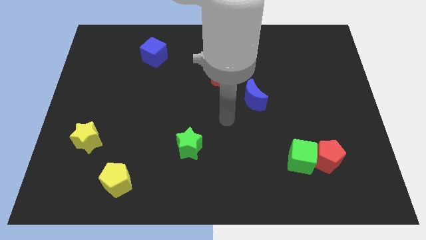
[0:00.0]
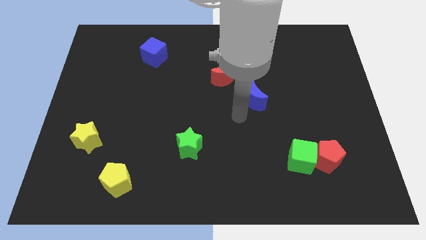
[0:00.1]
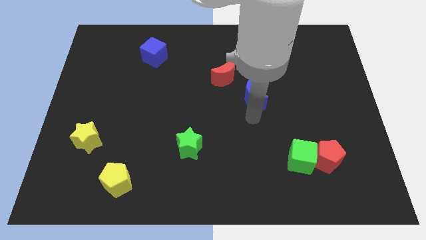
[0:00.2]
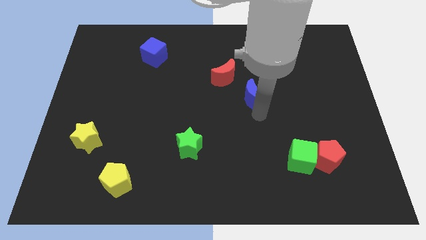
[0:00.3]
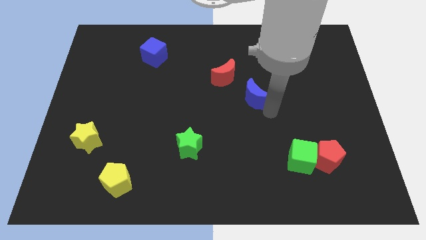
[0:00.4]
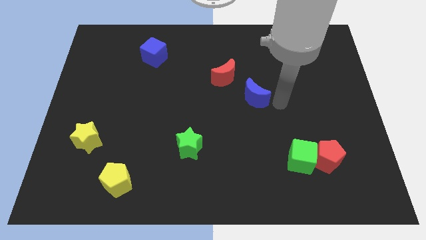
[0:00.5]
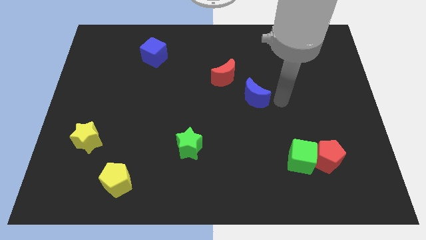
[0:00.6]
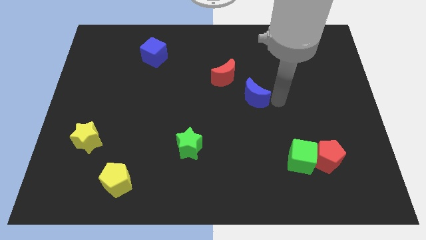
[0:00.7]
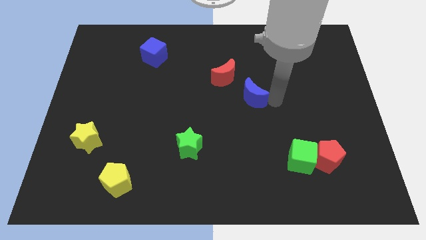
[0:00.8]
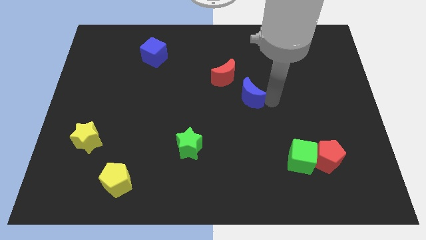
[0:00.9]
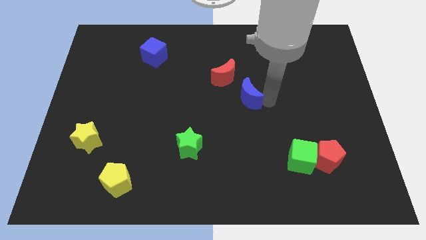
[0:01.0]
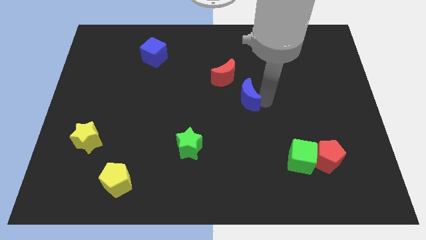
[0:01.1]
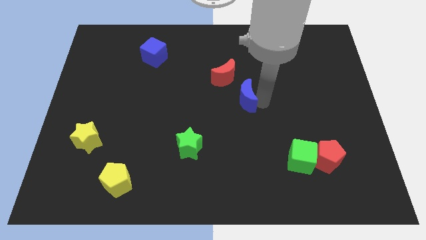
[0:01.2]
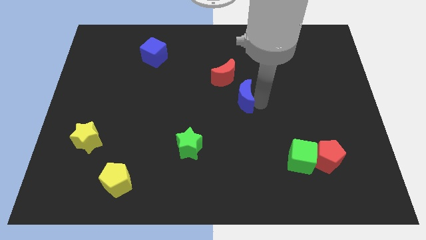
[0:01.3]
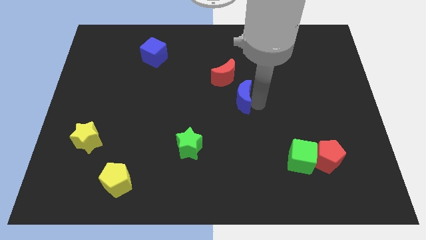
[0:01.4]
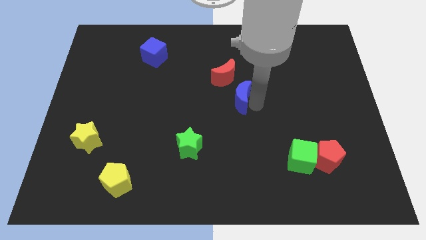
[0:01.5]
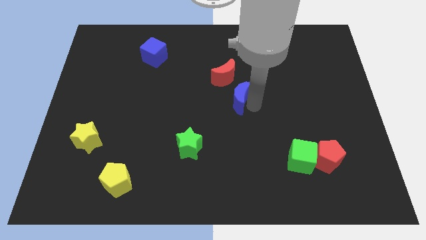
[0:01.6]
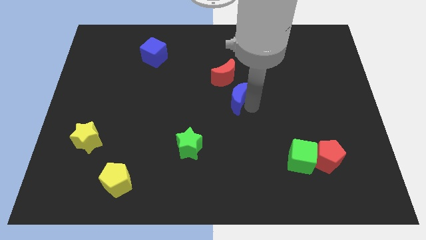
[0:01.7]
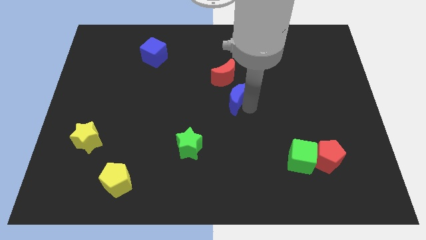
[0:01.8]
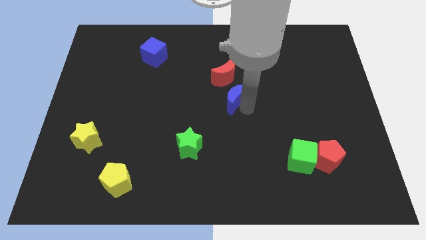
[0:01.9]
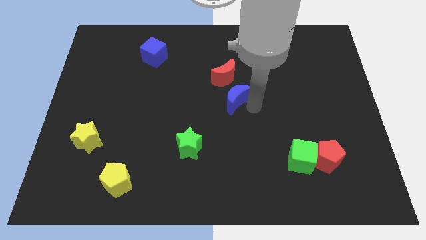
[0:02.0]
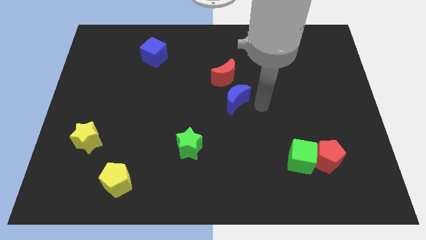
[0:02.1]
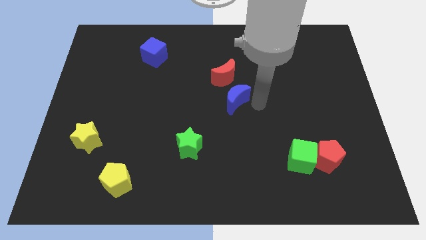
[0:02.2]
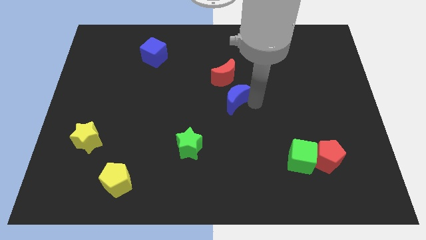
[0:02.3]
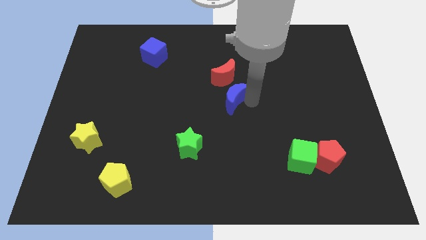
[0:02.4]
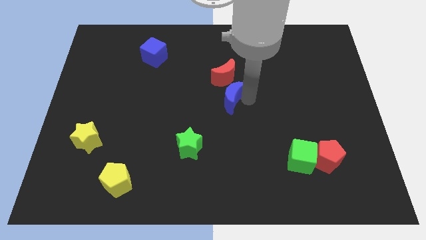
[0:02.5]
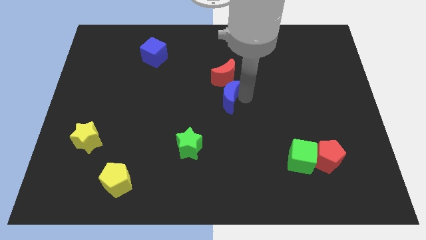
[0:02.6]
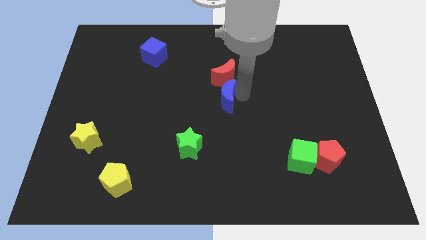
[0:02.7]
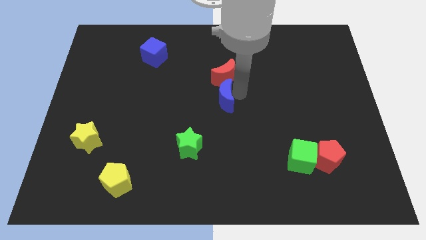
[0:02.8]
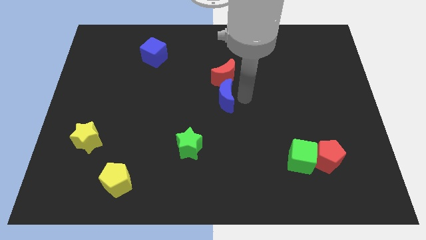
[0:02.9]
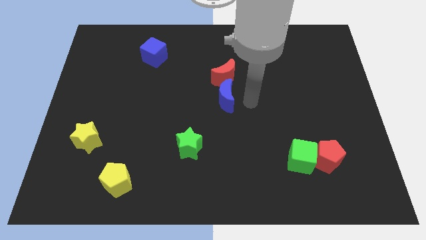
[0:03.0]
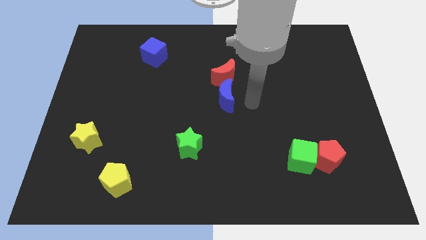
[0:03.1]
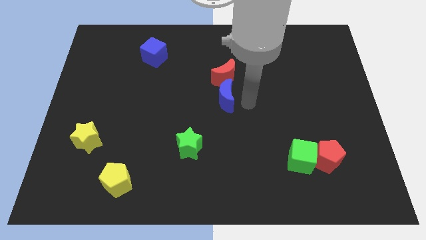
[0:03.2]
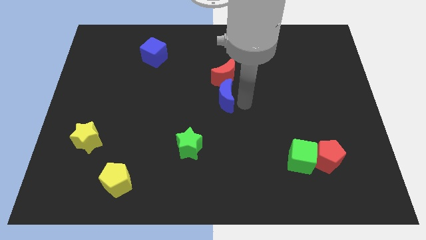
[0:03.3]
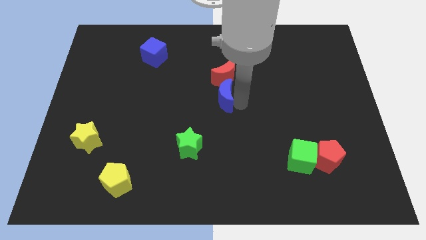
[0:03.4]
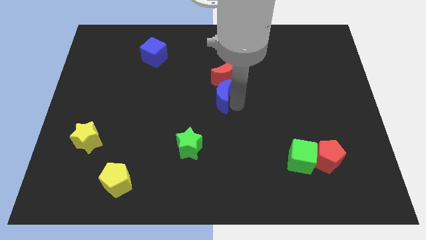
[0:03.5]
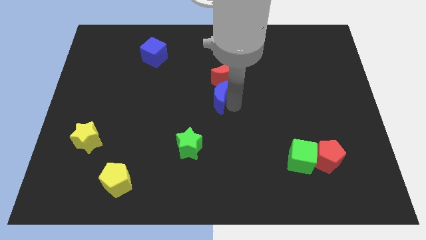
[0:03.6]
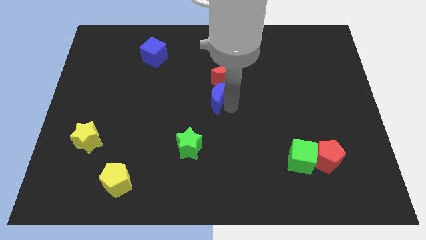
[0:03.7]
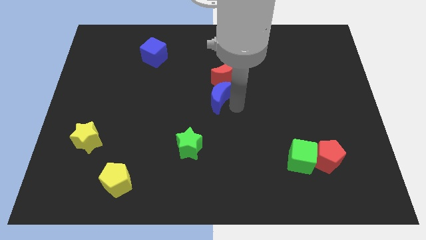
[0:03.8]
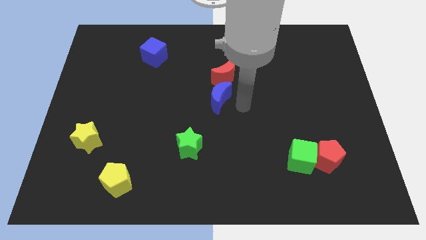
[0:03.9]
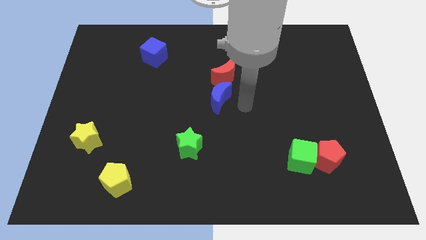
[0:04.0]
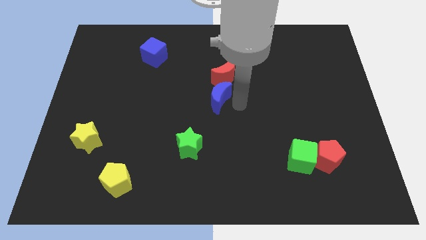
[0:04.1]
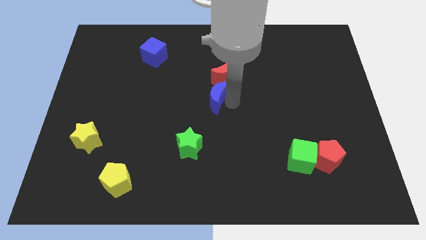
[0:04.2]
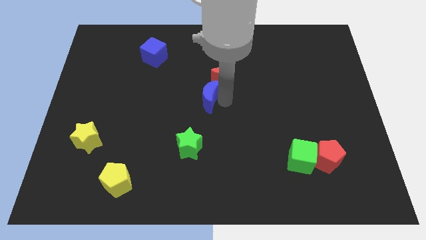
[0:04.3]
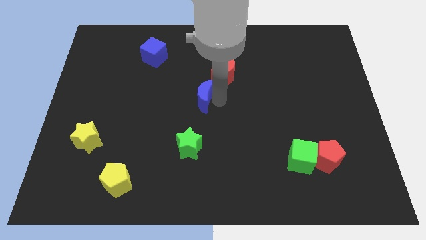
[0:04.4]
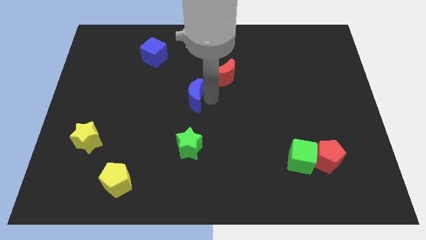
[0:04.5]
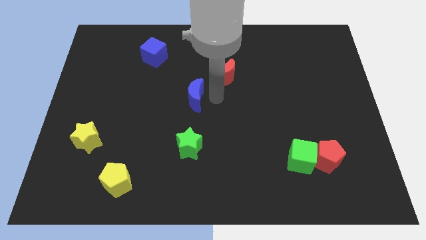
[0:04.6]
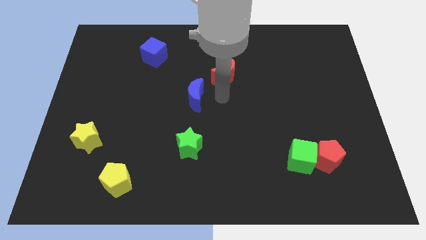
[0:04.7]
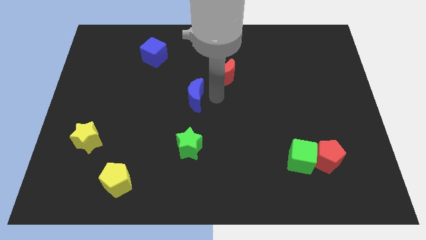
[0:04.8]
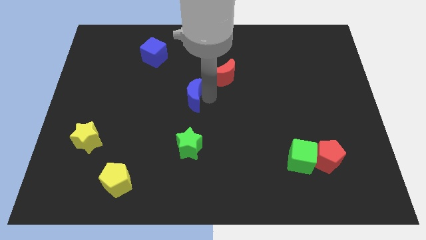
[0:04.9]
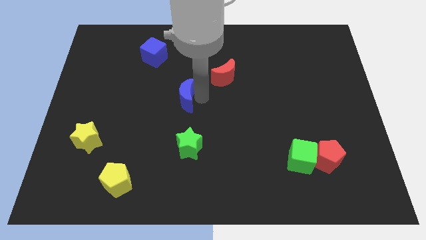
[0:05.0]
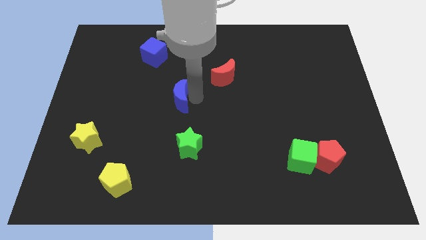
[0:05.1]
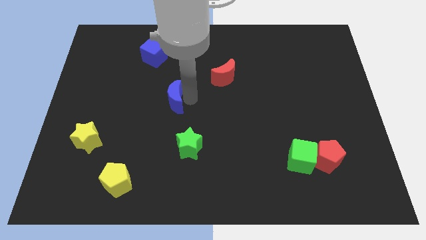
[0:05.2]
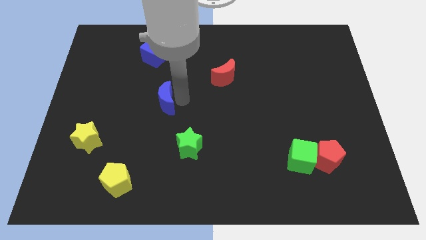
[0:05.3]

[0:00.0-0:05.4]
push the blue moon left

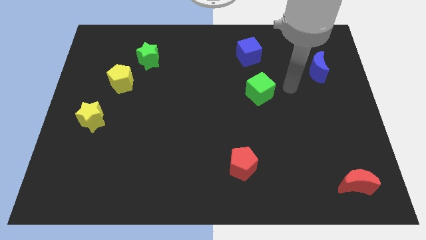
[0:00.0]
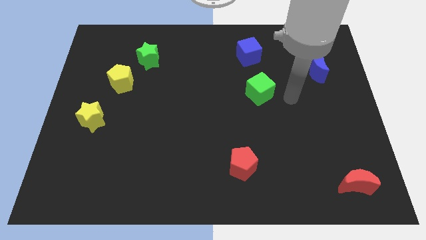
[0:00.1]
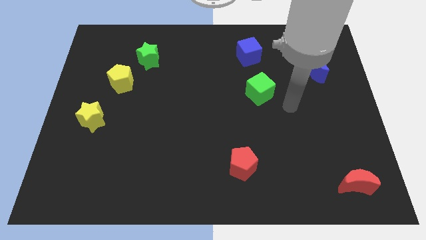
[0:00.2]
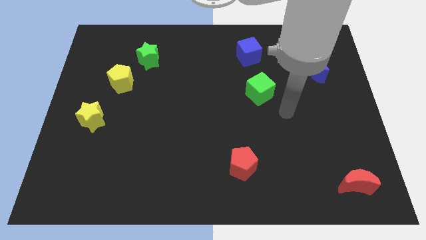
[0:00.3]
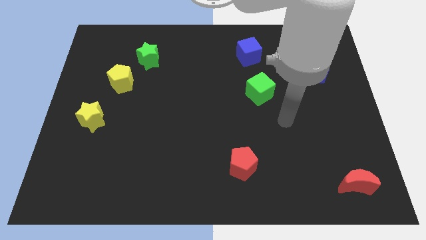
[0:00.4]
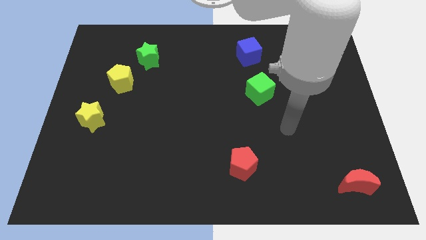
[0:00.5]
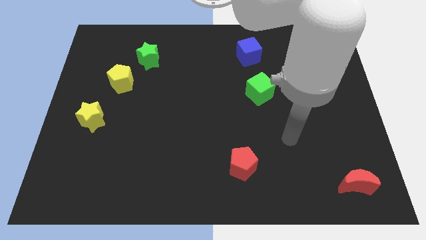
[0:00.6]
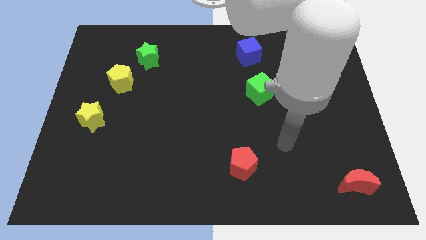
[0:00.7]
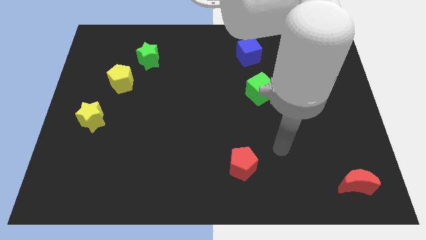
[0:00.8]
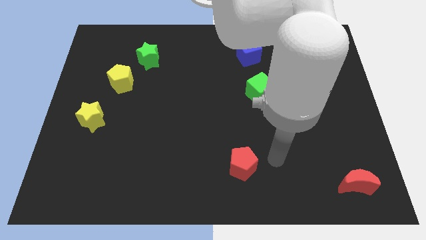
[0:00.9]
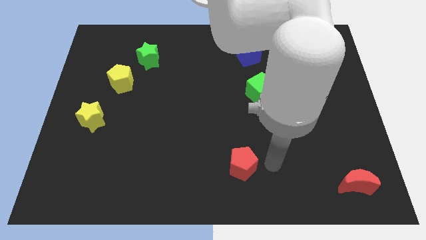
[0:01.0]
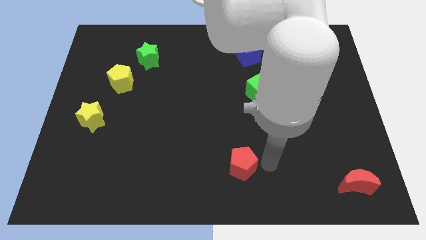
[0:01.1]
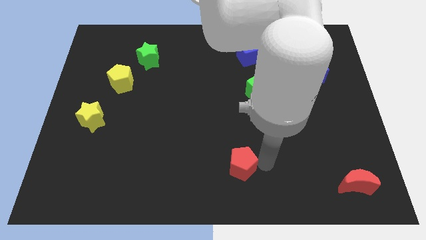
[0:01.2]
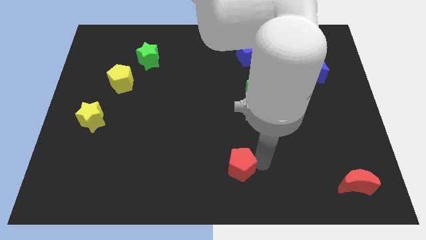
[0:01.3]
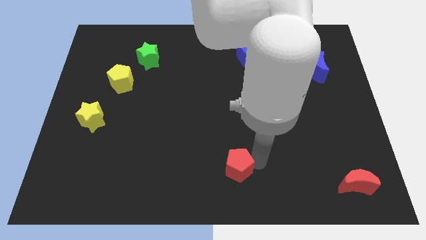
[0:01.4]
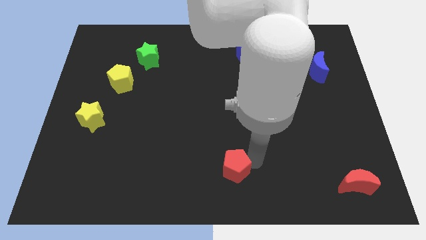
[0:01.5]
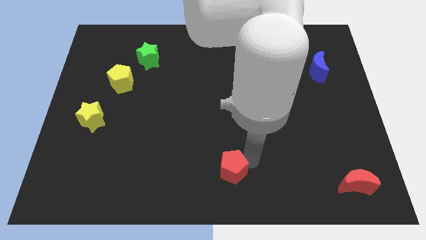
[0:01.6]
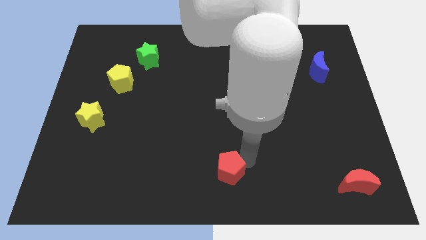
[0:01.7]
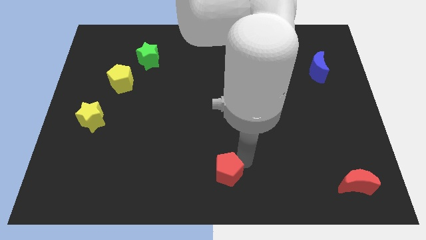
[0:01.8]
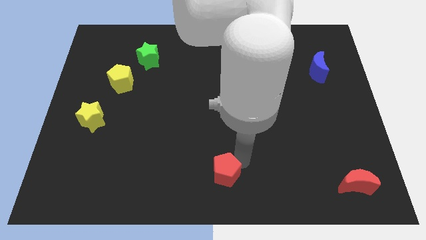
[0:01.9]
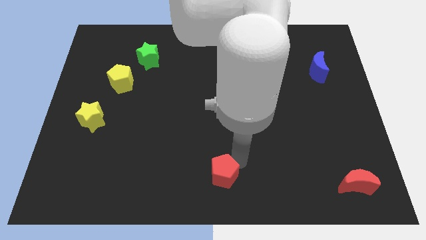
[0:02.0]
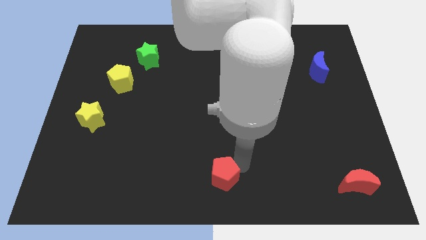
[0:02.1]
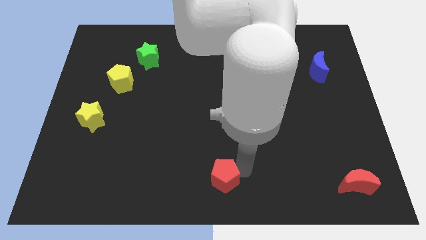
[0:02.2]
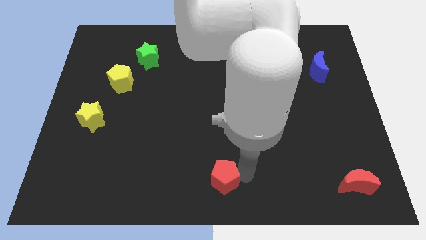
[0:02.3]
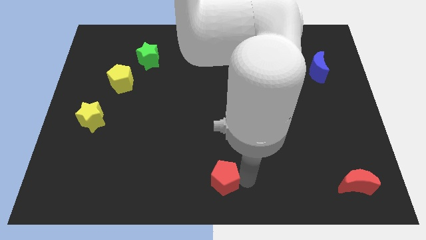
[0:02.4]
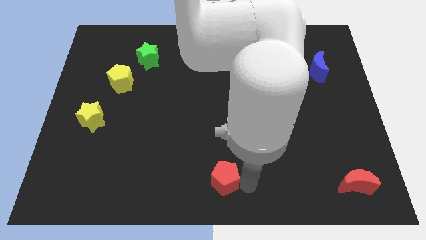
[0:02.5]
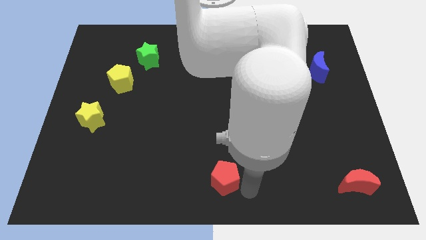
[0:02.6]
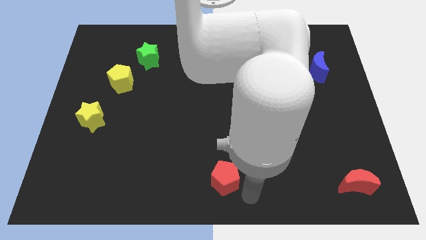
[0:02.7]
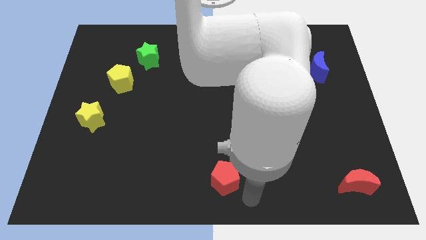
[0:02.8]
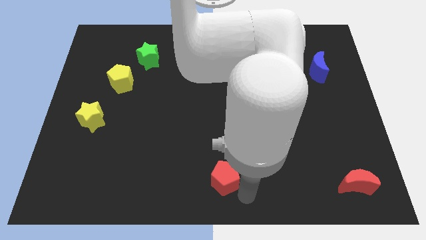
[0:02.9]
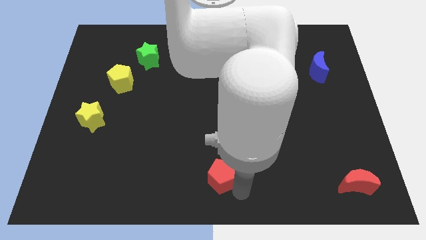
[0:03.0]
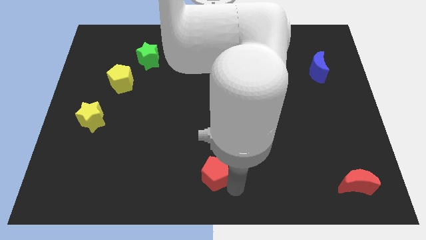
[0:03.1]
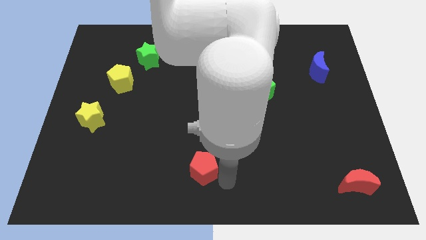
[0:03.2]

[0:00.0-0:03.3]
slightly move the red pentagon left
